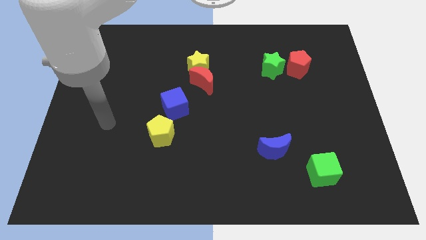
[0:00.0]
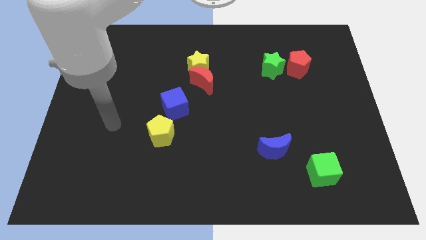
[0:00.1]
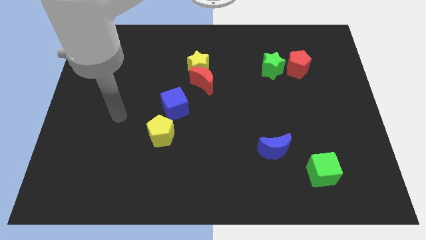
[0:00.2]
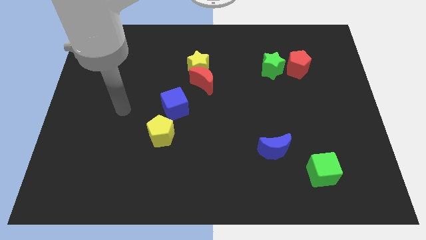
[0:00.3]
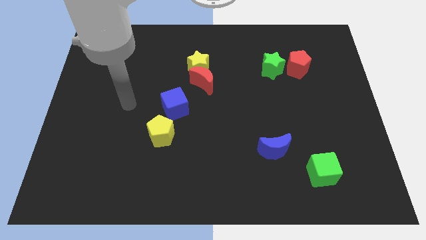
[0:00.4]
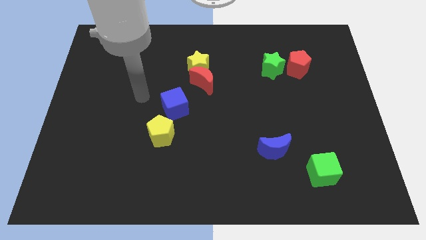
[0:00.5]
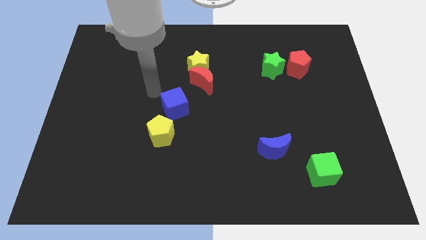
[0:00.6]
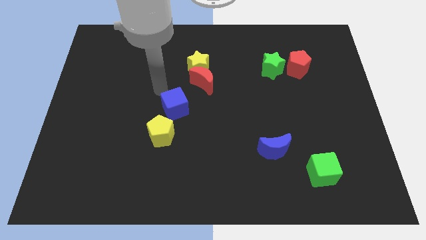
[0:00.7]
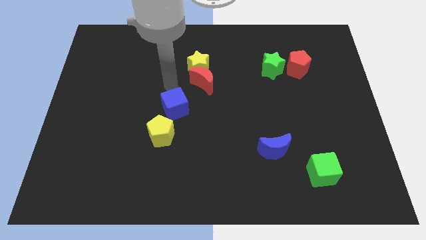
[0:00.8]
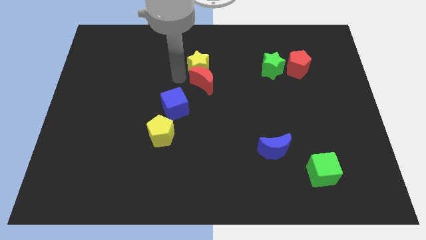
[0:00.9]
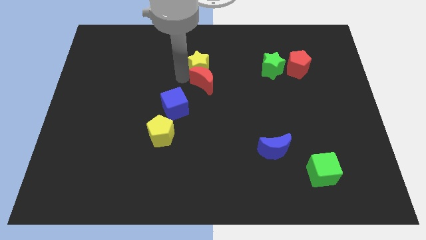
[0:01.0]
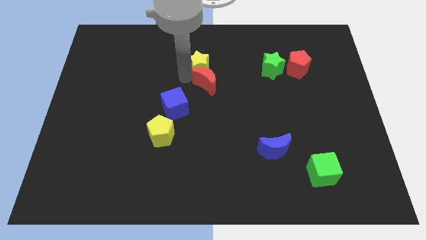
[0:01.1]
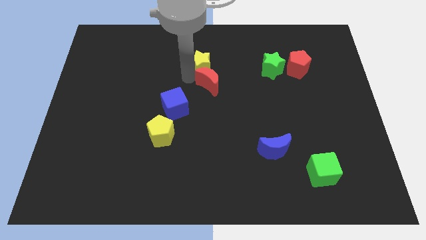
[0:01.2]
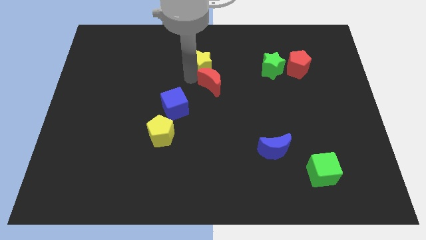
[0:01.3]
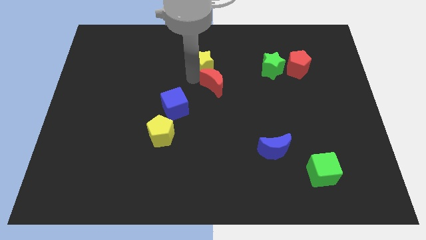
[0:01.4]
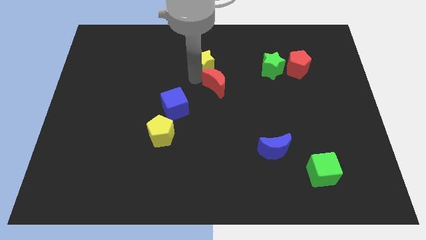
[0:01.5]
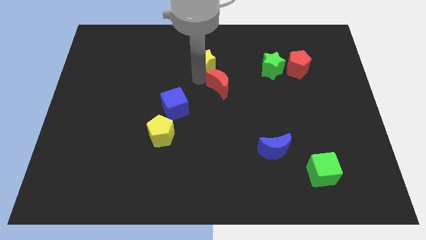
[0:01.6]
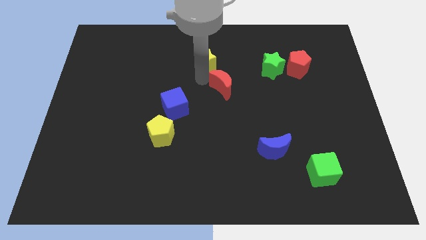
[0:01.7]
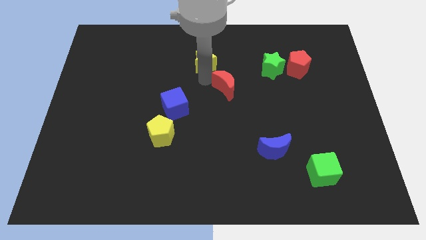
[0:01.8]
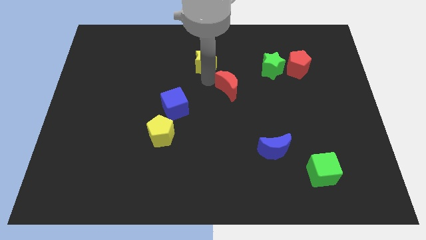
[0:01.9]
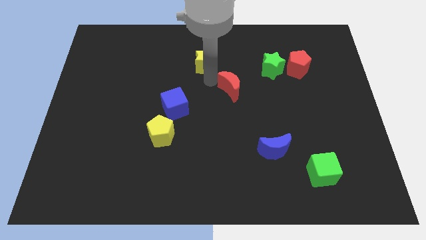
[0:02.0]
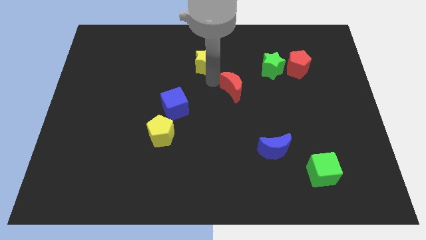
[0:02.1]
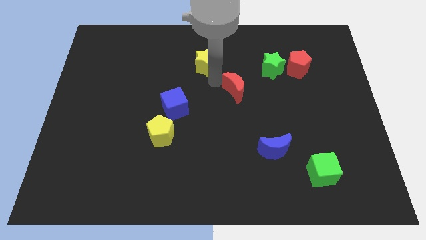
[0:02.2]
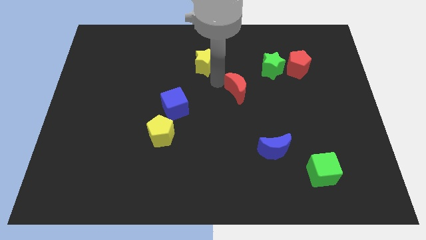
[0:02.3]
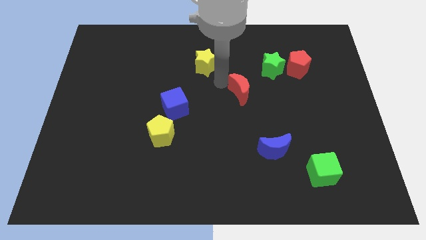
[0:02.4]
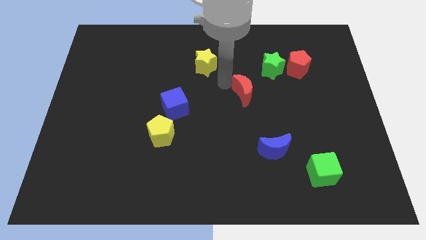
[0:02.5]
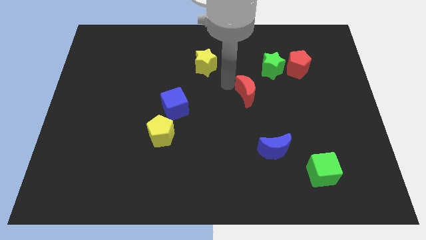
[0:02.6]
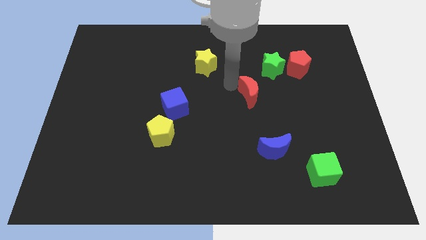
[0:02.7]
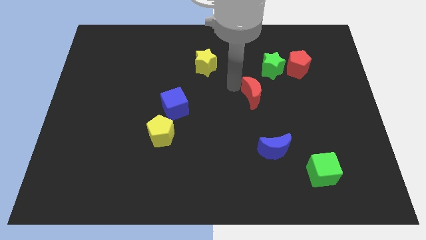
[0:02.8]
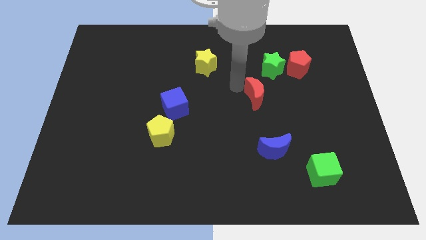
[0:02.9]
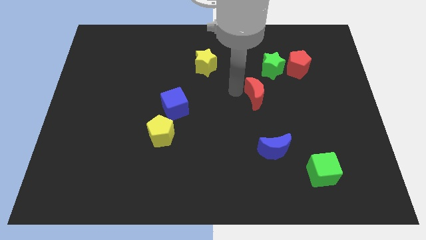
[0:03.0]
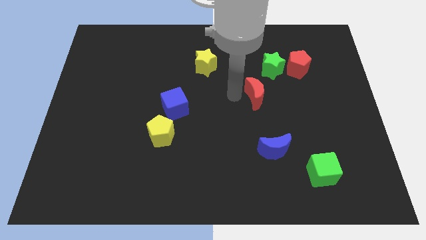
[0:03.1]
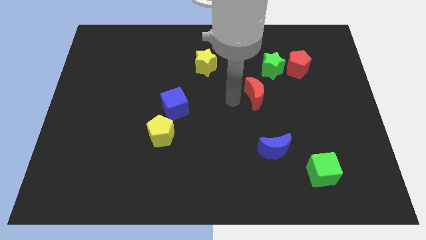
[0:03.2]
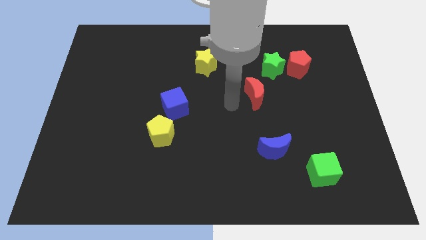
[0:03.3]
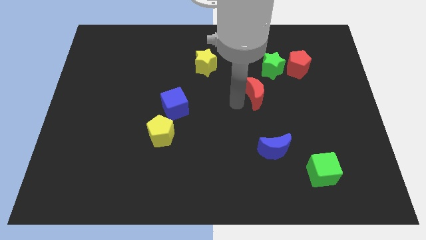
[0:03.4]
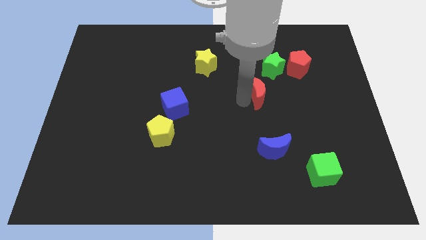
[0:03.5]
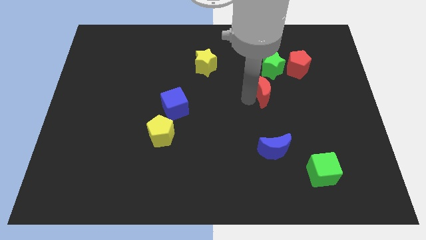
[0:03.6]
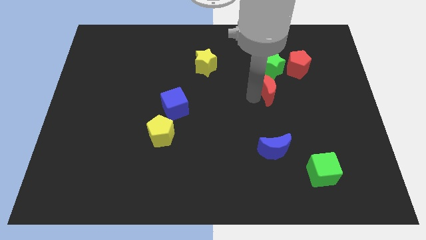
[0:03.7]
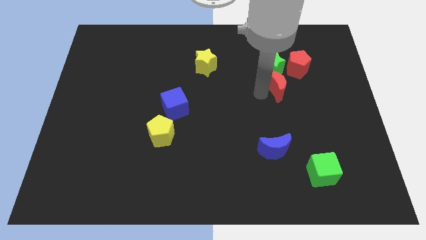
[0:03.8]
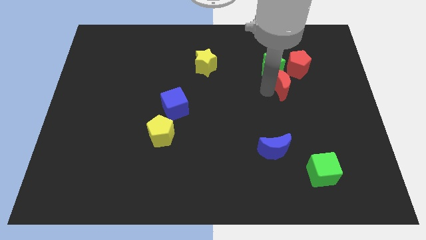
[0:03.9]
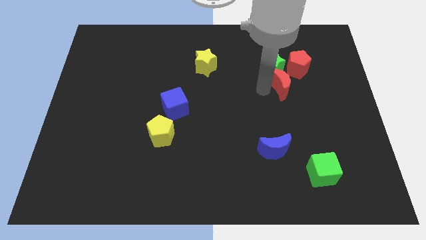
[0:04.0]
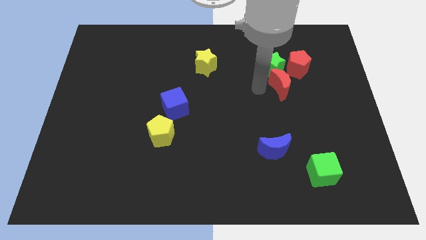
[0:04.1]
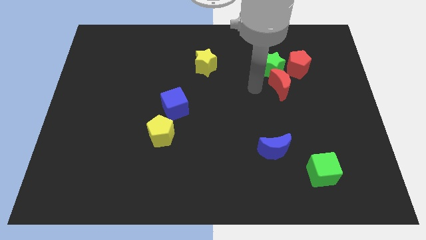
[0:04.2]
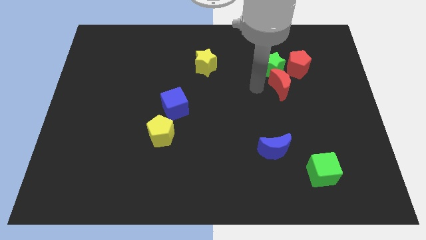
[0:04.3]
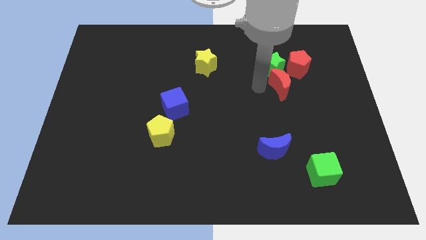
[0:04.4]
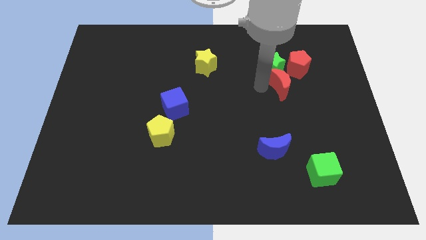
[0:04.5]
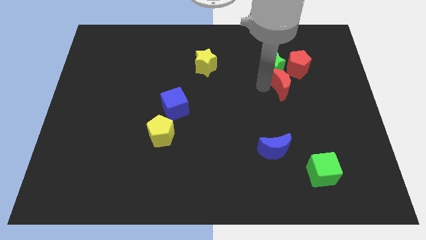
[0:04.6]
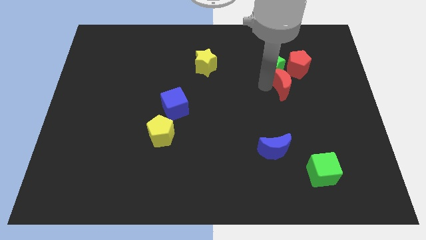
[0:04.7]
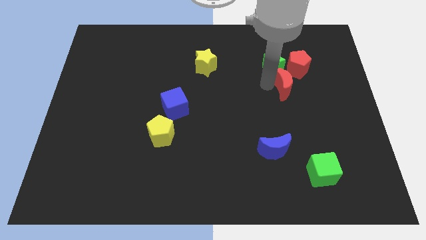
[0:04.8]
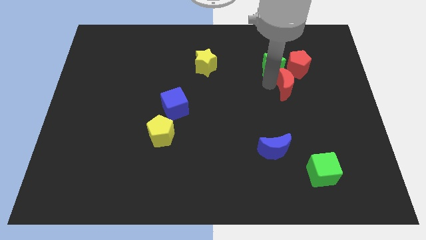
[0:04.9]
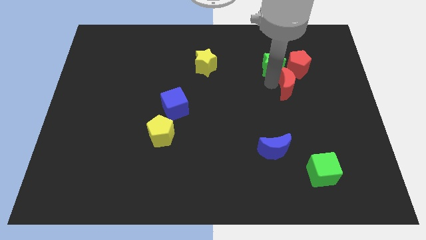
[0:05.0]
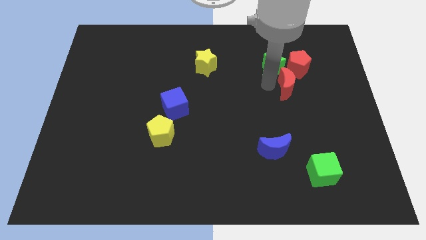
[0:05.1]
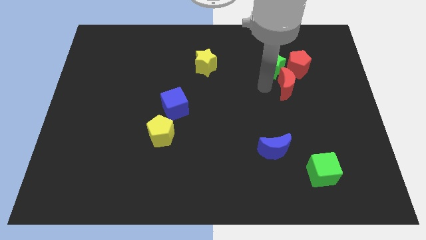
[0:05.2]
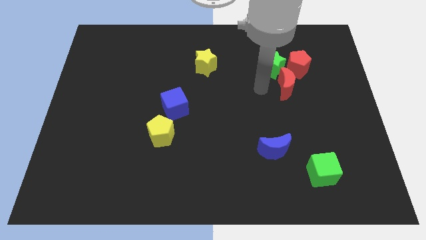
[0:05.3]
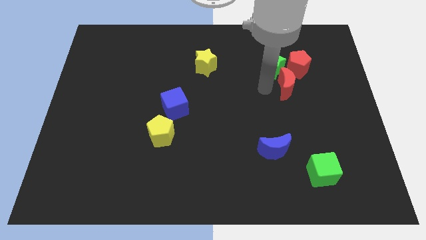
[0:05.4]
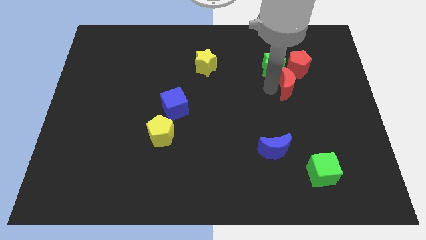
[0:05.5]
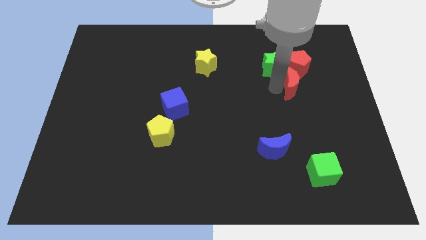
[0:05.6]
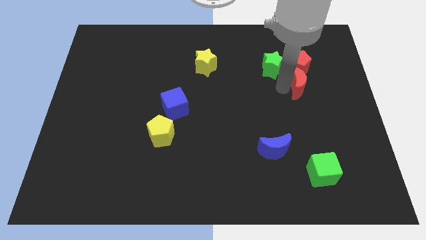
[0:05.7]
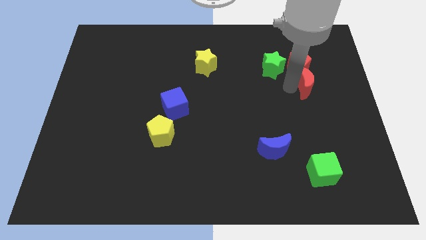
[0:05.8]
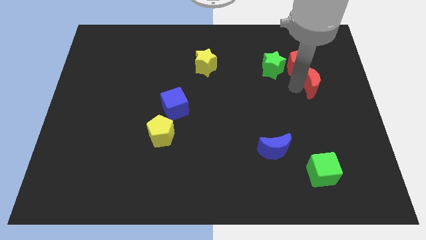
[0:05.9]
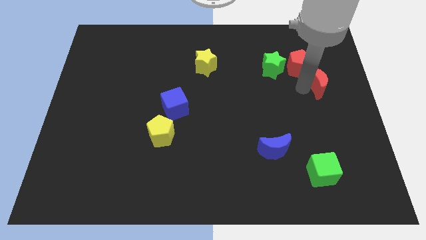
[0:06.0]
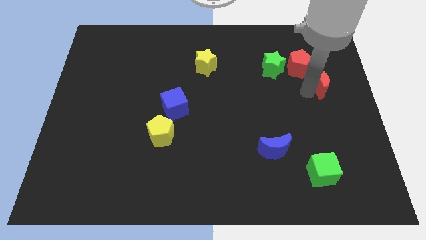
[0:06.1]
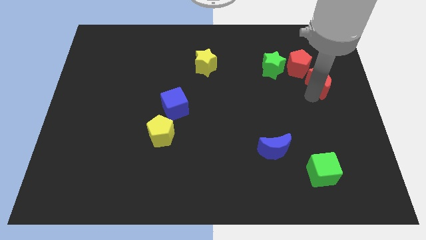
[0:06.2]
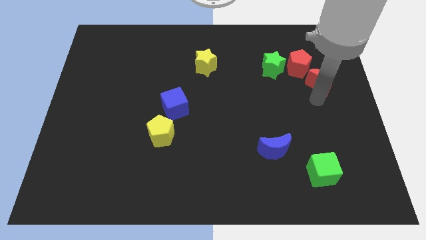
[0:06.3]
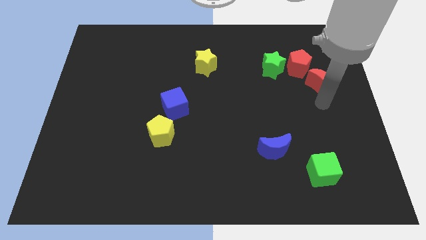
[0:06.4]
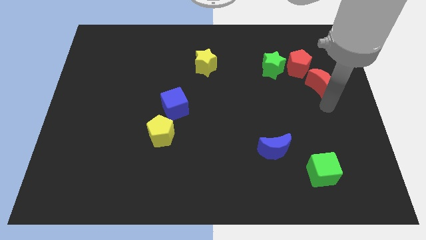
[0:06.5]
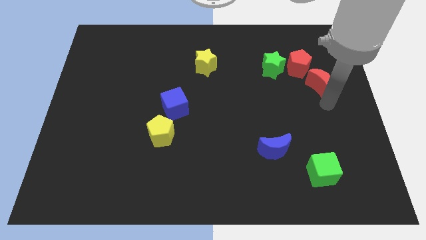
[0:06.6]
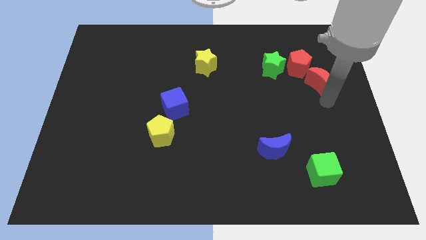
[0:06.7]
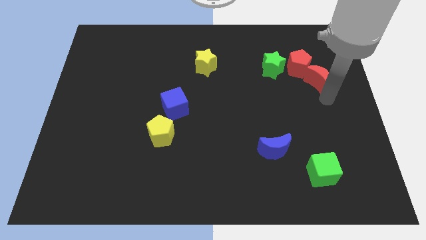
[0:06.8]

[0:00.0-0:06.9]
move the red moon right of the green star

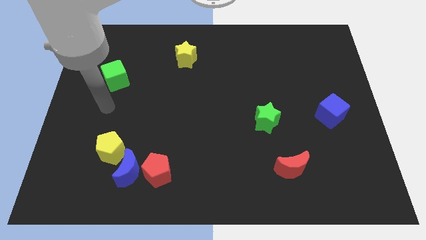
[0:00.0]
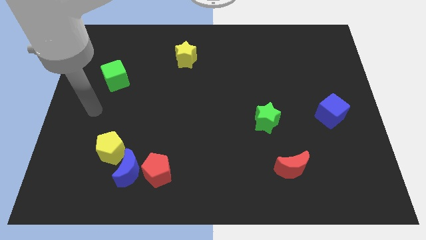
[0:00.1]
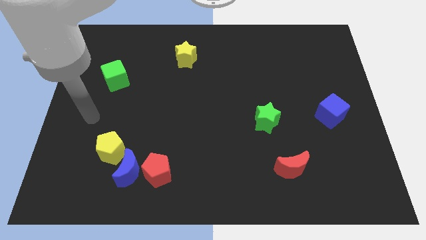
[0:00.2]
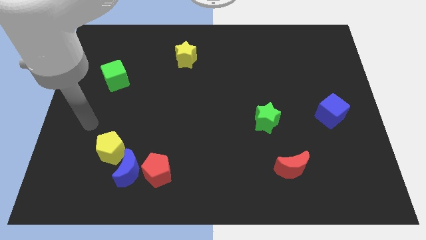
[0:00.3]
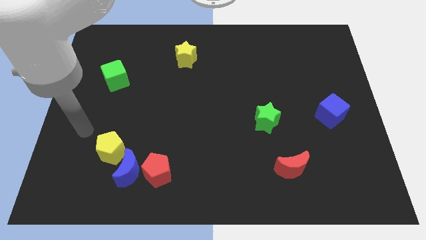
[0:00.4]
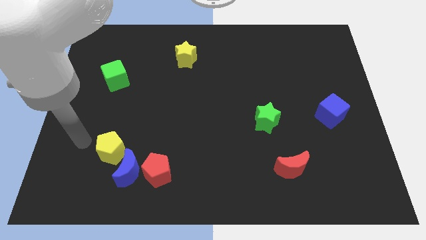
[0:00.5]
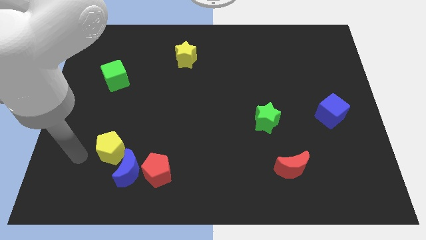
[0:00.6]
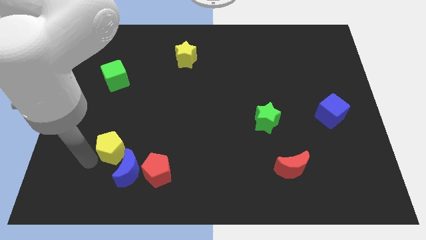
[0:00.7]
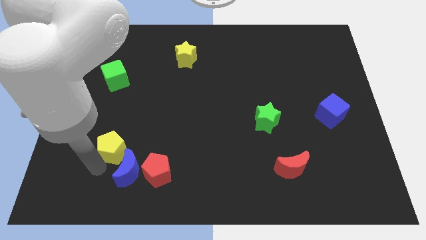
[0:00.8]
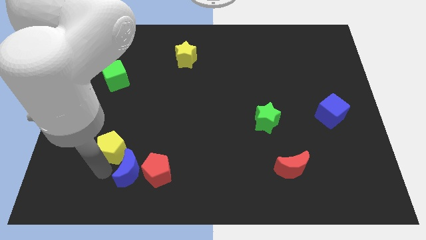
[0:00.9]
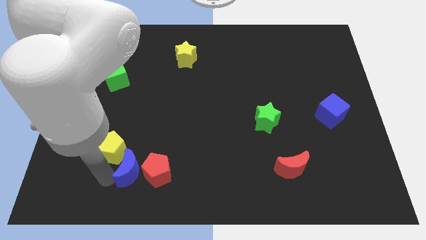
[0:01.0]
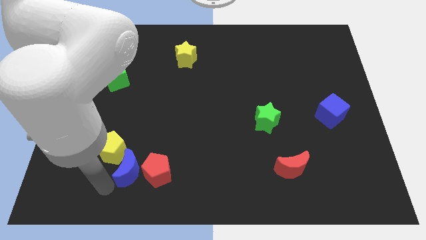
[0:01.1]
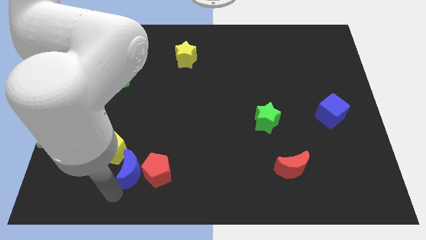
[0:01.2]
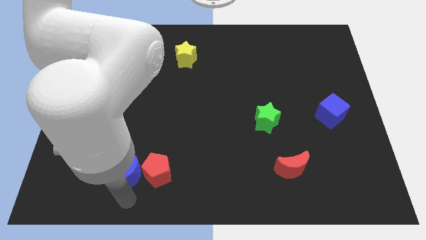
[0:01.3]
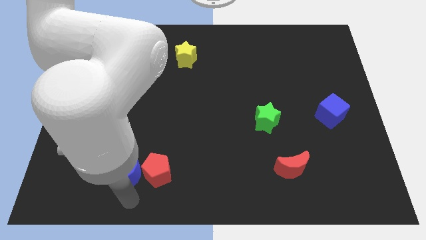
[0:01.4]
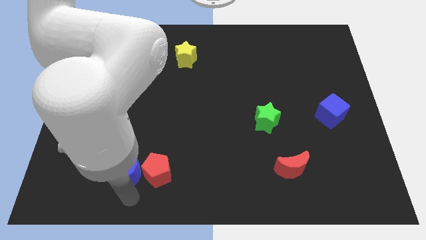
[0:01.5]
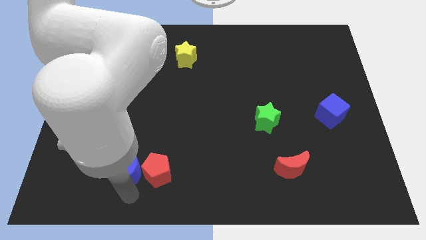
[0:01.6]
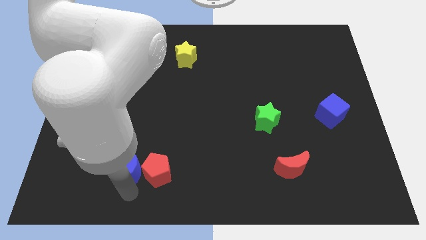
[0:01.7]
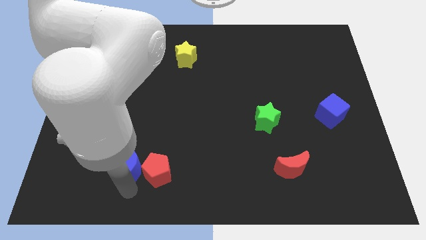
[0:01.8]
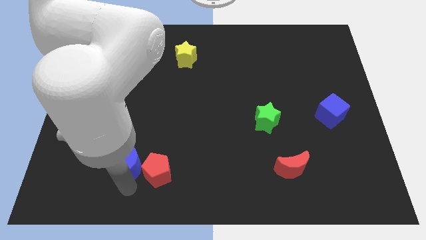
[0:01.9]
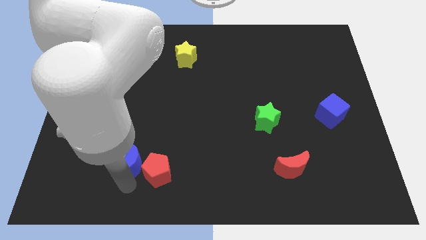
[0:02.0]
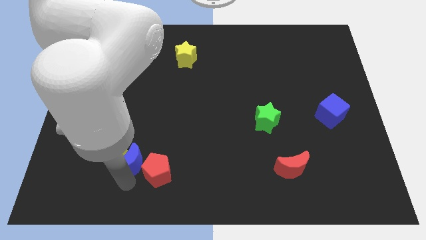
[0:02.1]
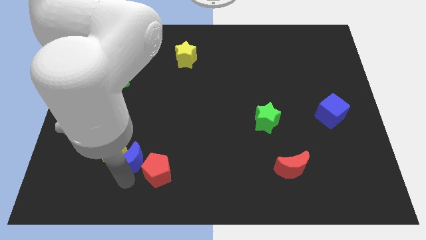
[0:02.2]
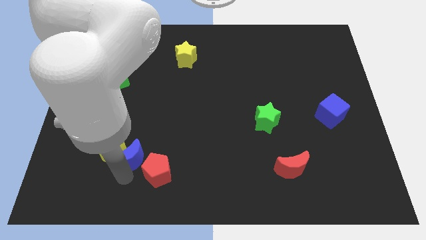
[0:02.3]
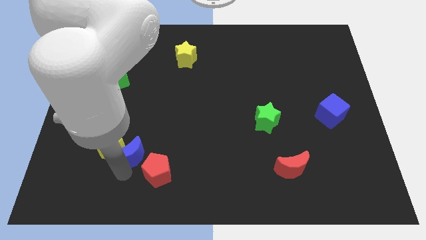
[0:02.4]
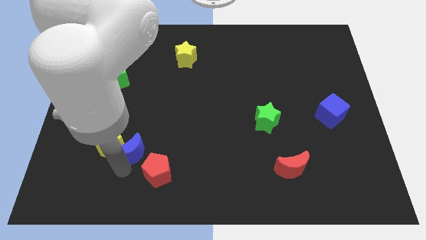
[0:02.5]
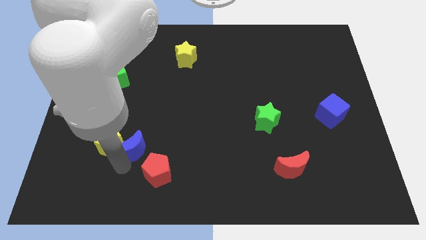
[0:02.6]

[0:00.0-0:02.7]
push the blue moon to the top right side of the yellow pentagon
